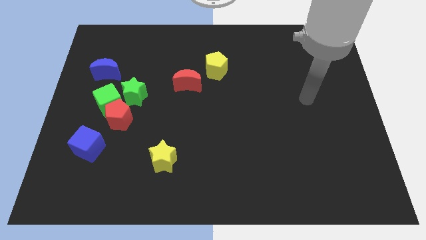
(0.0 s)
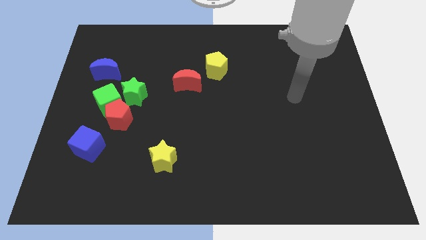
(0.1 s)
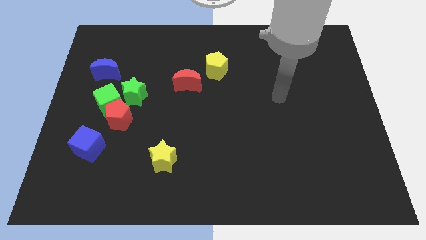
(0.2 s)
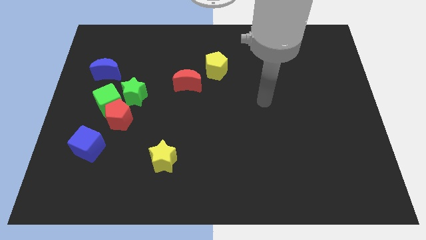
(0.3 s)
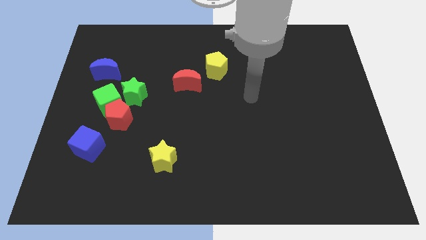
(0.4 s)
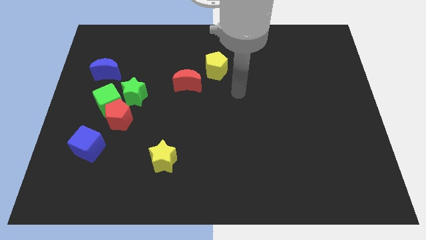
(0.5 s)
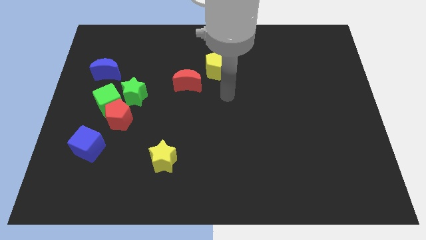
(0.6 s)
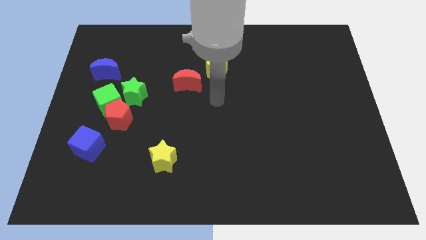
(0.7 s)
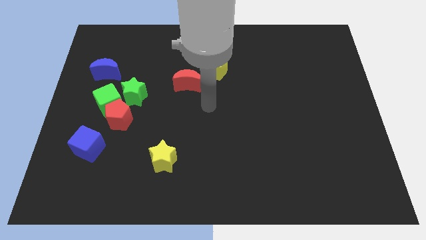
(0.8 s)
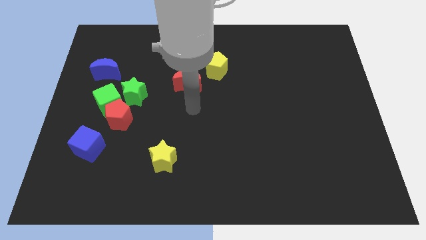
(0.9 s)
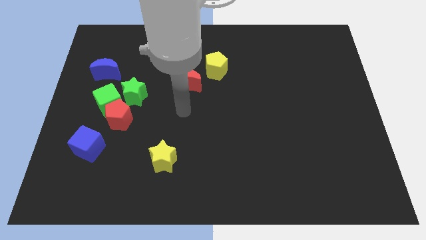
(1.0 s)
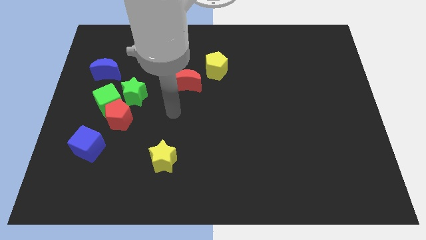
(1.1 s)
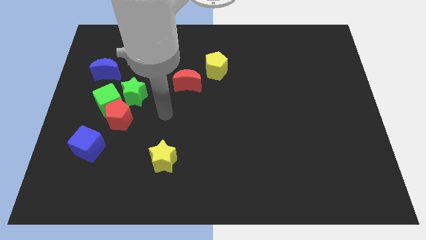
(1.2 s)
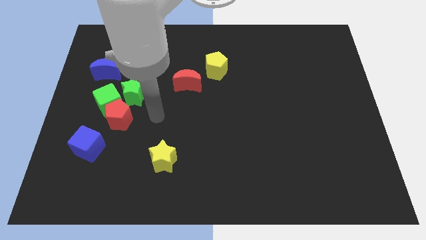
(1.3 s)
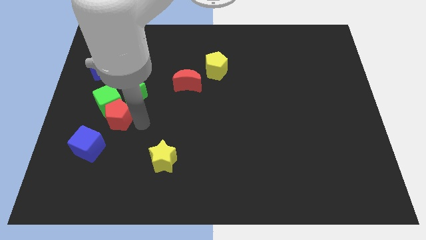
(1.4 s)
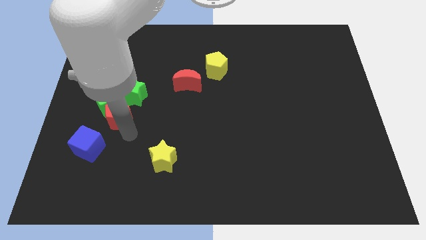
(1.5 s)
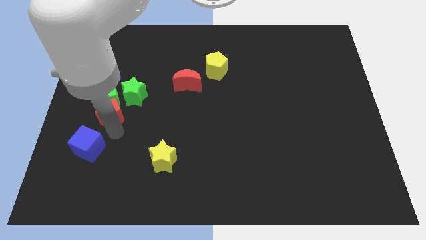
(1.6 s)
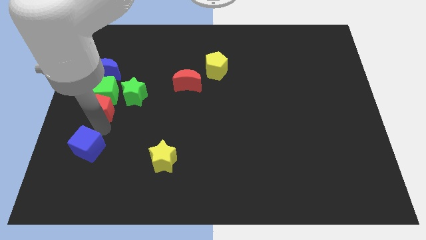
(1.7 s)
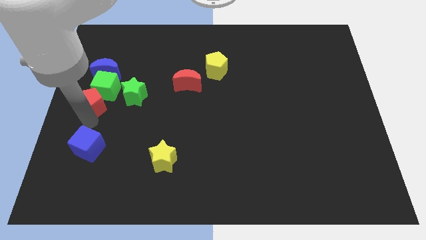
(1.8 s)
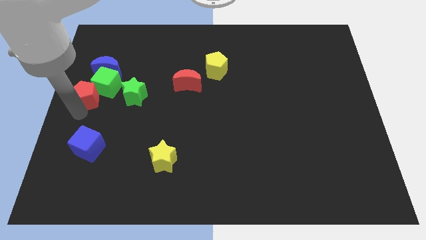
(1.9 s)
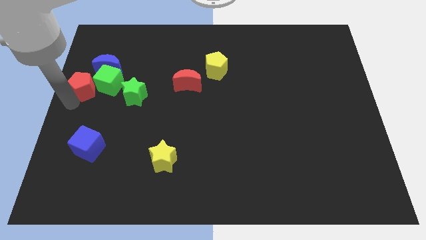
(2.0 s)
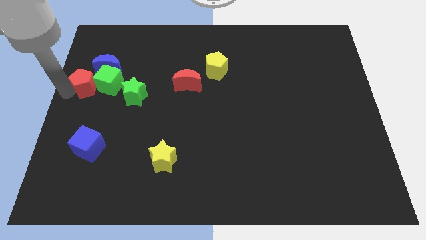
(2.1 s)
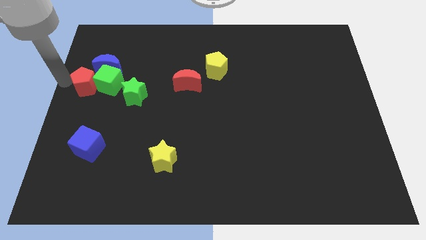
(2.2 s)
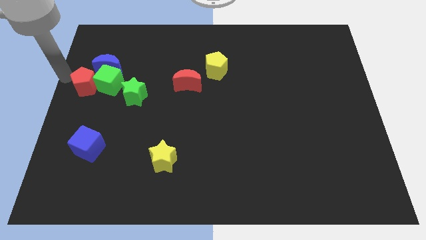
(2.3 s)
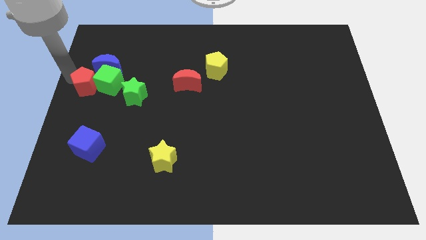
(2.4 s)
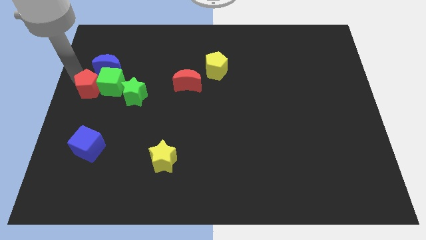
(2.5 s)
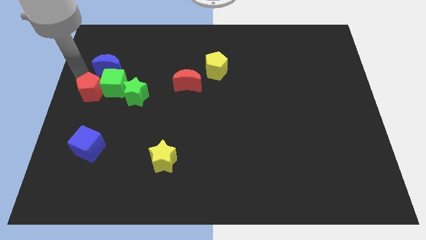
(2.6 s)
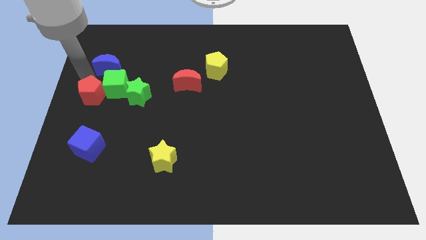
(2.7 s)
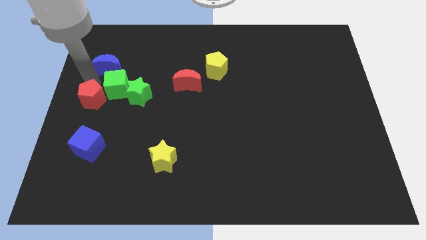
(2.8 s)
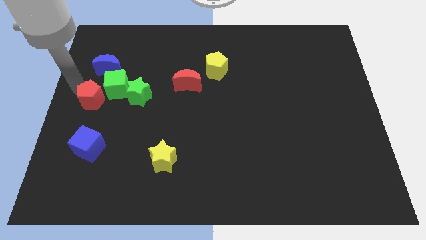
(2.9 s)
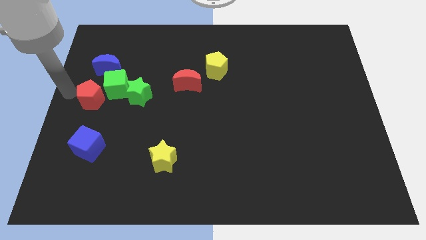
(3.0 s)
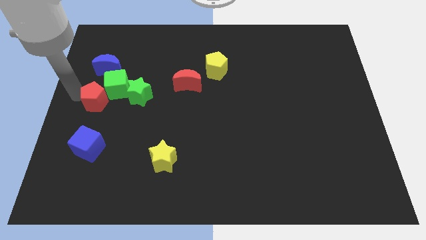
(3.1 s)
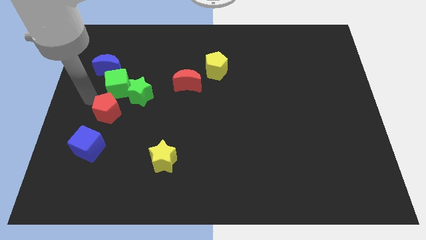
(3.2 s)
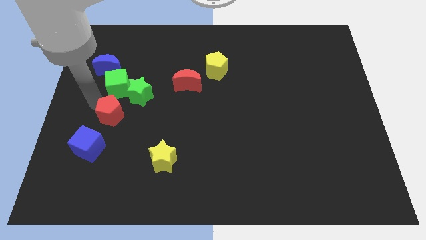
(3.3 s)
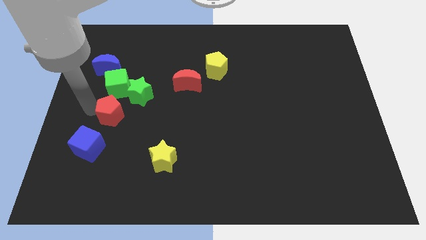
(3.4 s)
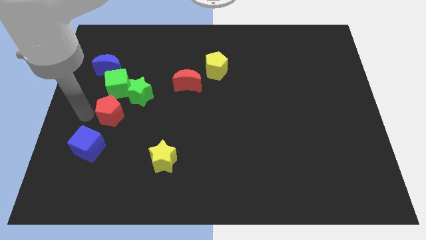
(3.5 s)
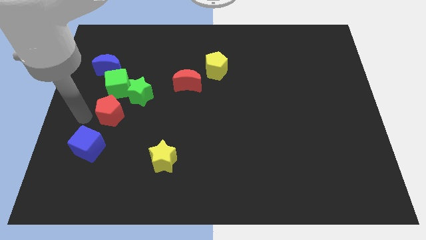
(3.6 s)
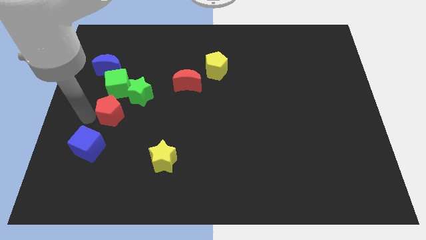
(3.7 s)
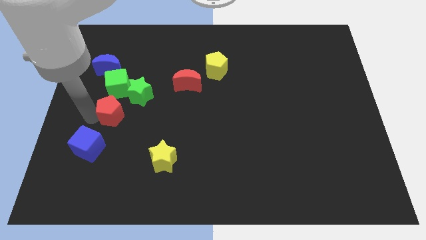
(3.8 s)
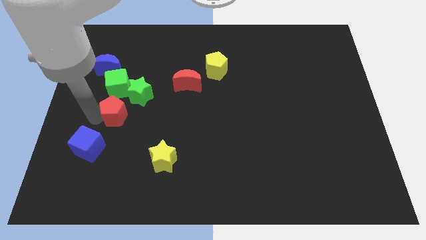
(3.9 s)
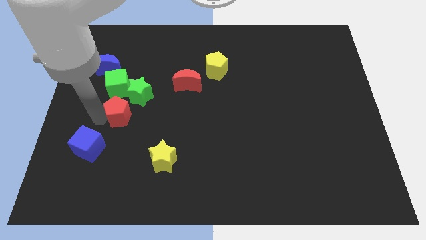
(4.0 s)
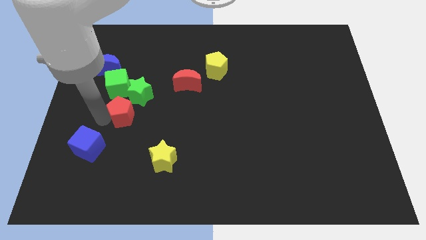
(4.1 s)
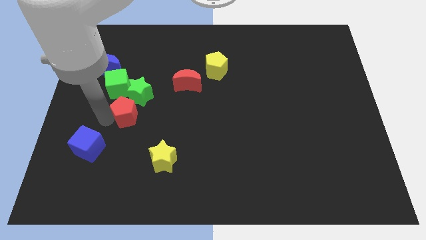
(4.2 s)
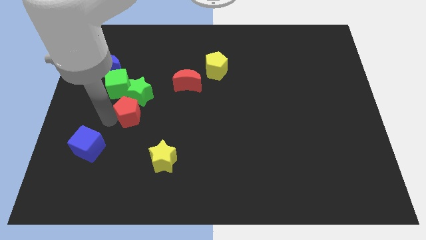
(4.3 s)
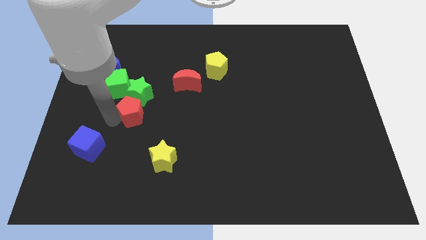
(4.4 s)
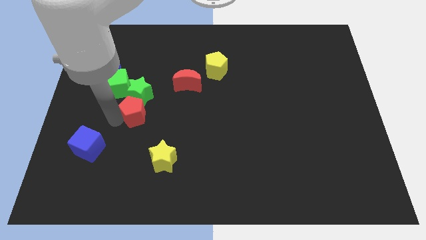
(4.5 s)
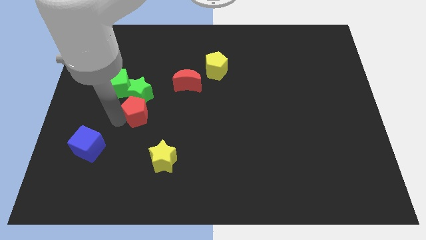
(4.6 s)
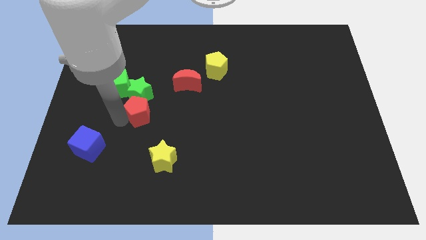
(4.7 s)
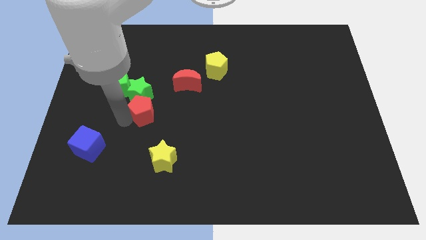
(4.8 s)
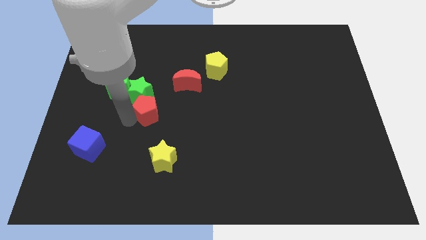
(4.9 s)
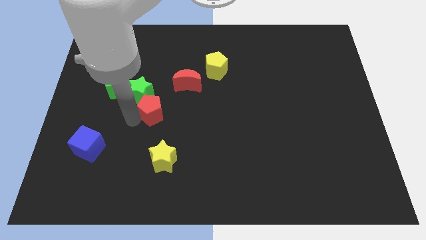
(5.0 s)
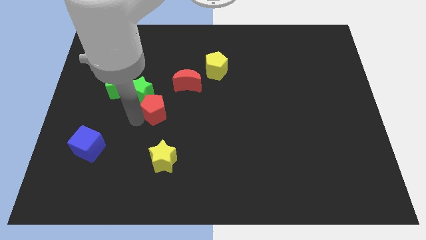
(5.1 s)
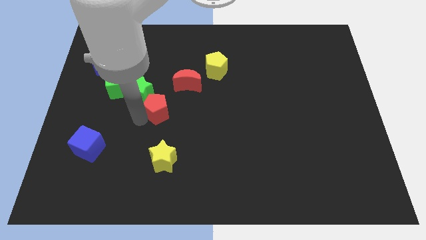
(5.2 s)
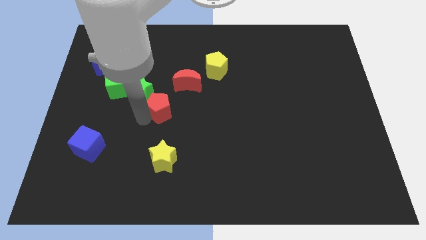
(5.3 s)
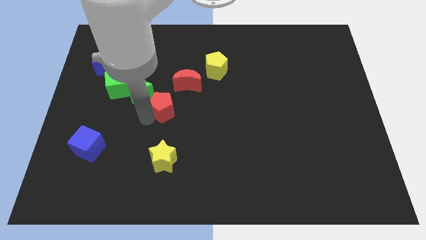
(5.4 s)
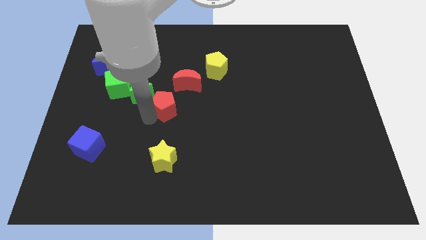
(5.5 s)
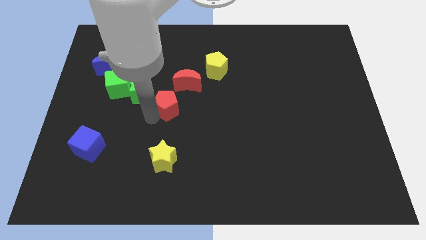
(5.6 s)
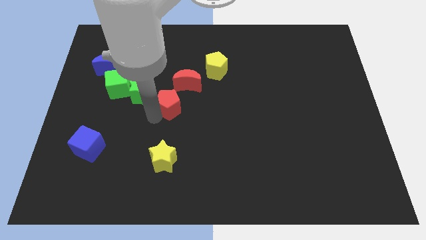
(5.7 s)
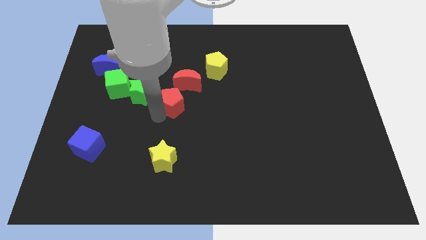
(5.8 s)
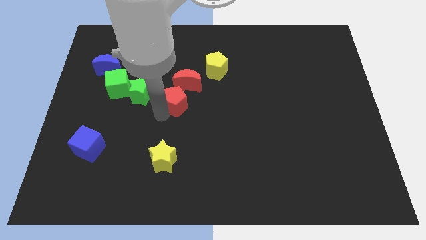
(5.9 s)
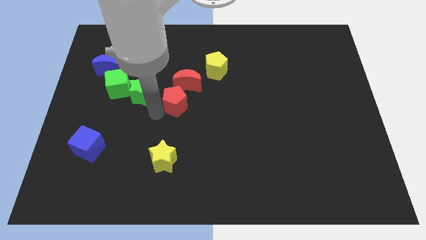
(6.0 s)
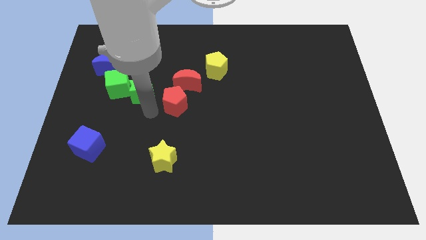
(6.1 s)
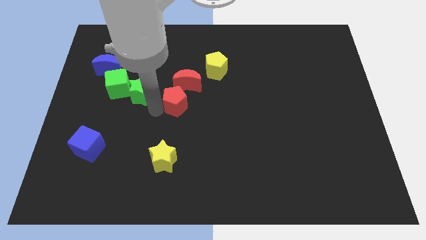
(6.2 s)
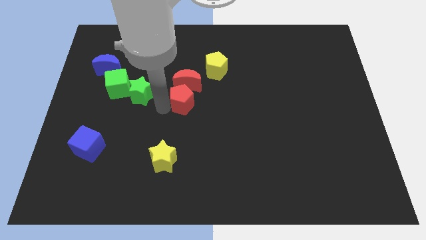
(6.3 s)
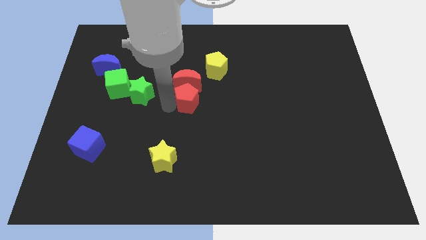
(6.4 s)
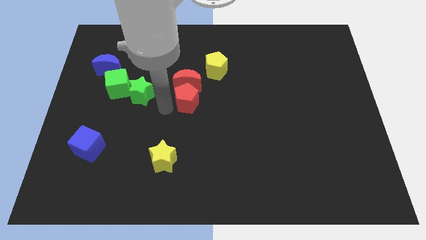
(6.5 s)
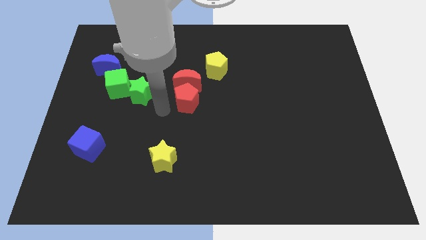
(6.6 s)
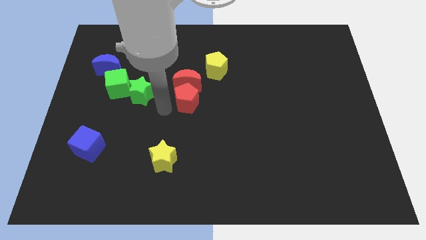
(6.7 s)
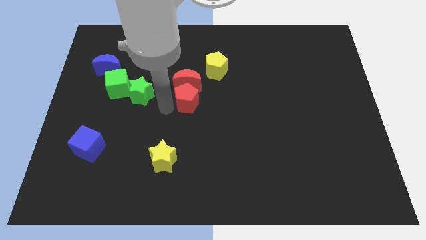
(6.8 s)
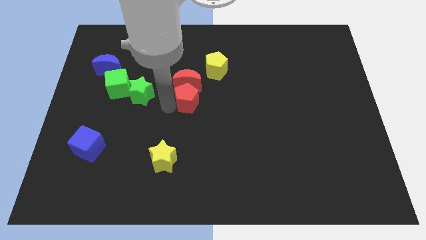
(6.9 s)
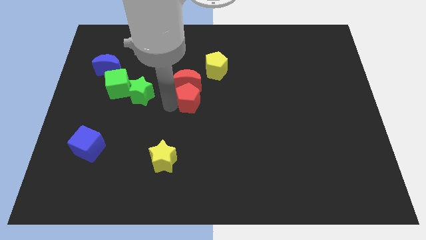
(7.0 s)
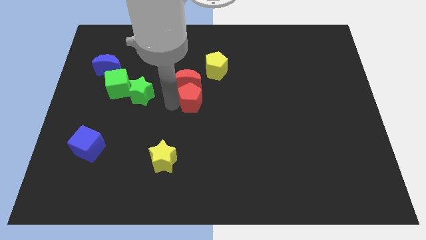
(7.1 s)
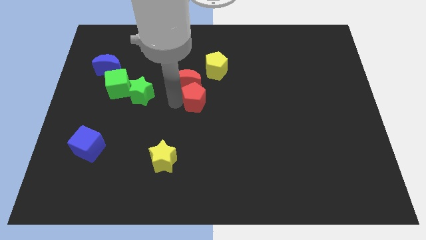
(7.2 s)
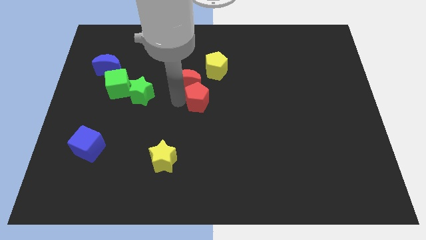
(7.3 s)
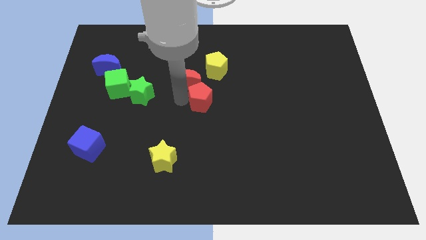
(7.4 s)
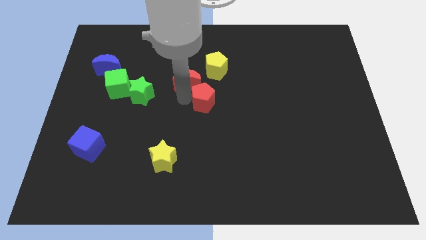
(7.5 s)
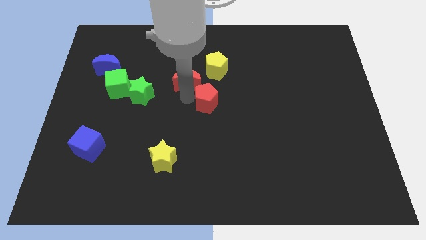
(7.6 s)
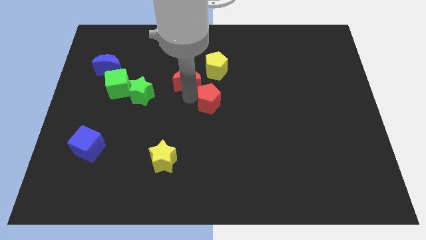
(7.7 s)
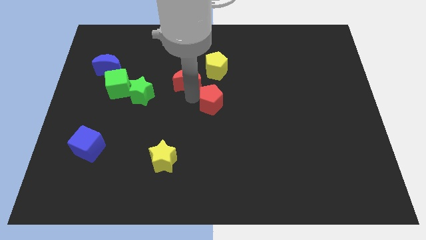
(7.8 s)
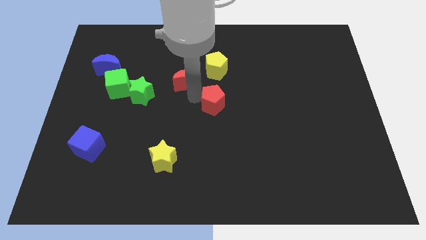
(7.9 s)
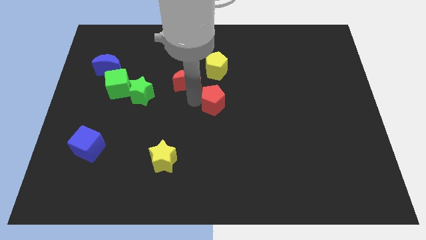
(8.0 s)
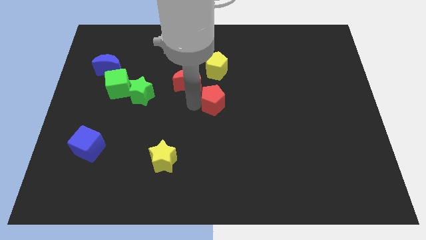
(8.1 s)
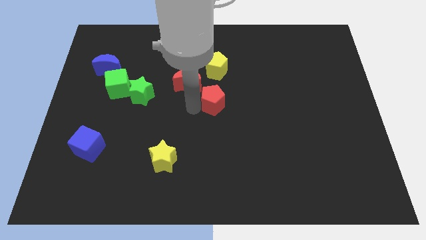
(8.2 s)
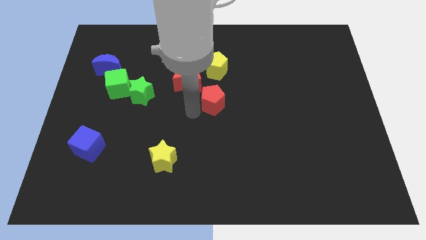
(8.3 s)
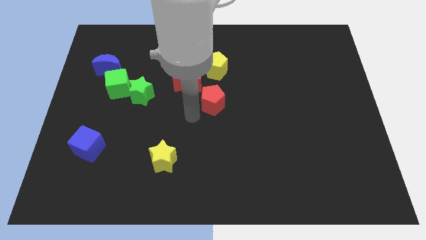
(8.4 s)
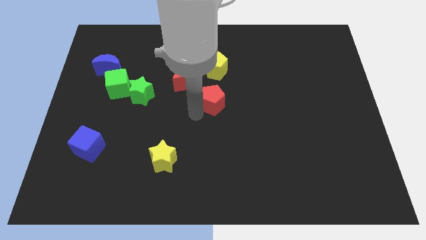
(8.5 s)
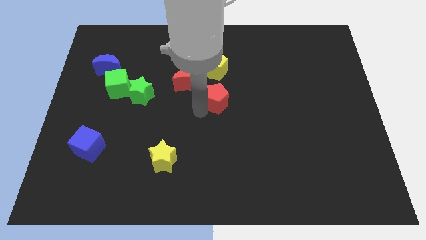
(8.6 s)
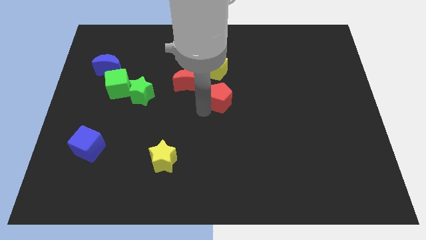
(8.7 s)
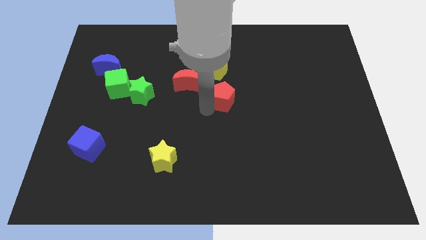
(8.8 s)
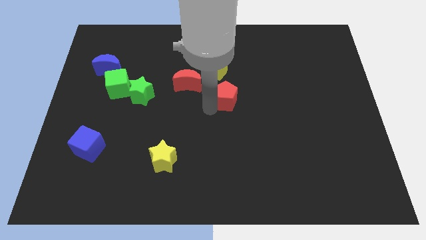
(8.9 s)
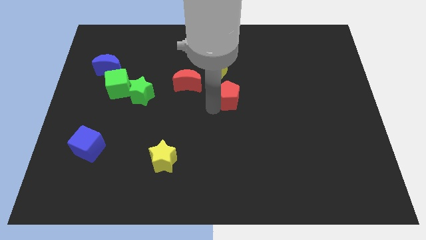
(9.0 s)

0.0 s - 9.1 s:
push the red pentagon to the bottom right of the yellow pentagon
